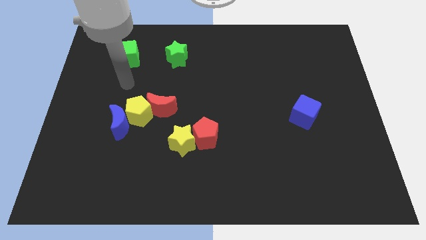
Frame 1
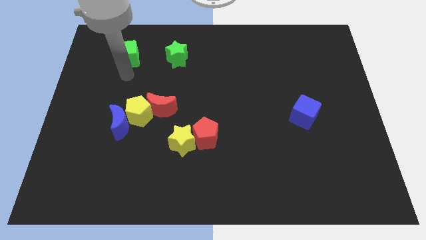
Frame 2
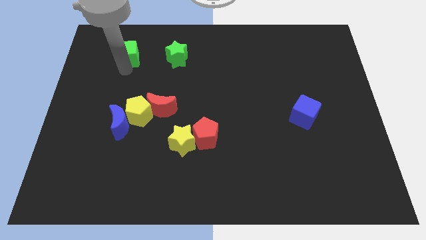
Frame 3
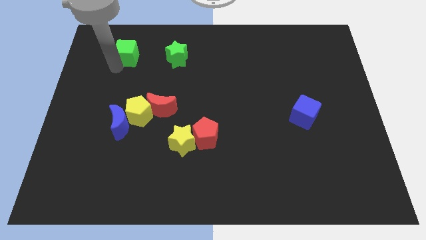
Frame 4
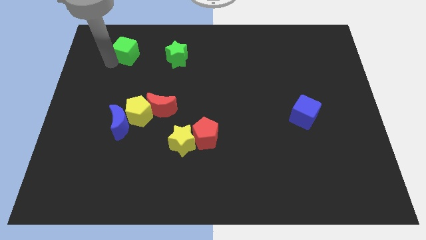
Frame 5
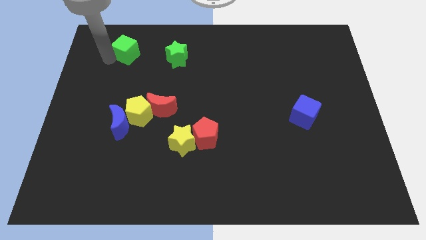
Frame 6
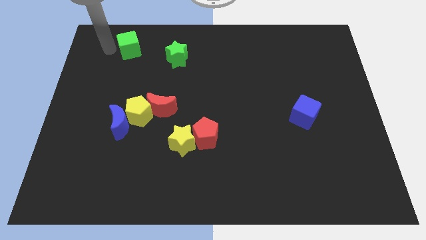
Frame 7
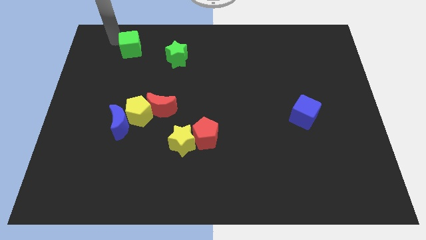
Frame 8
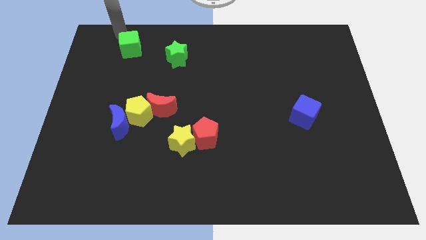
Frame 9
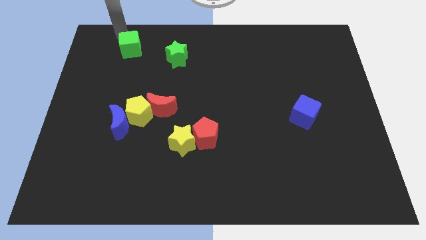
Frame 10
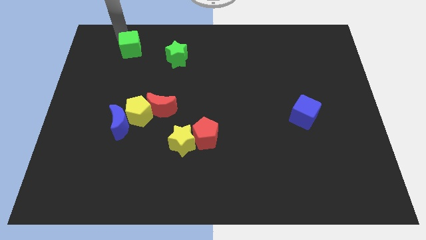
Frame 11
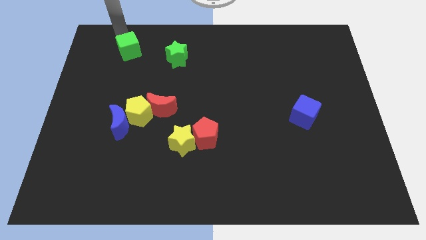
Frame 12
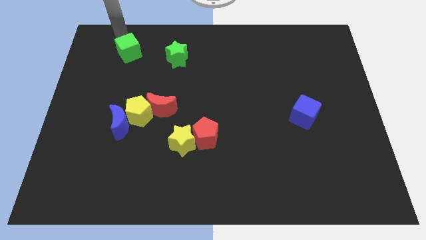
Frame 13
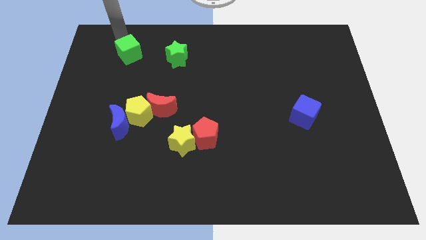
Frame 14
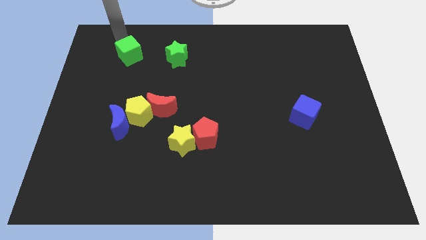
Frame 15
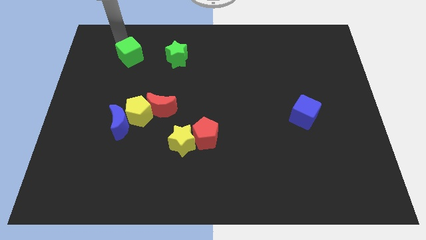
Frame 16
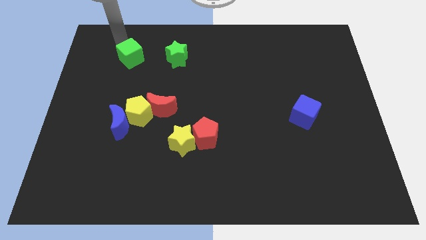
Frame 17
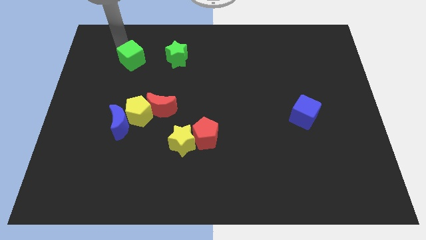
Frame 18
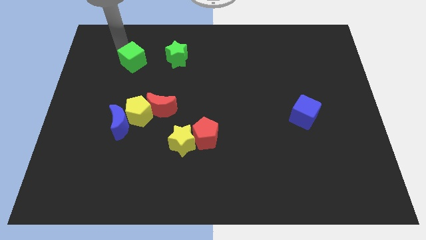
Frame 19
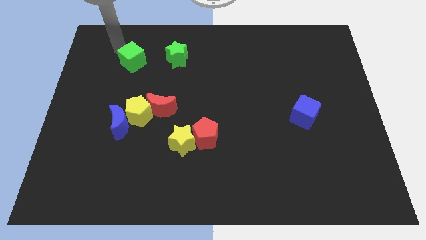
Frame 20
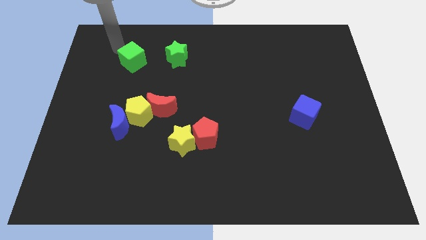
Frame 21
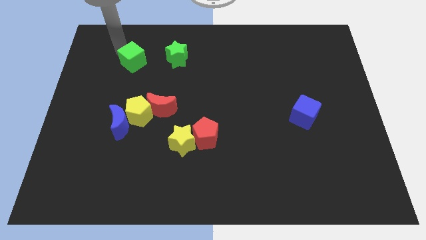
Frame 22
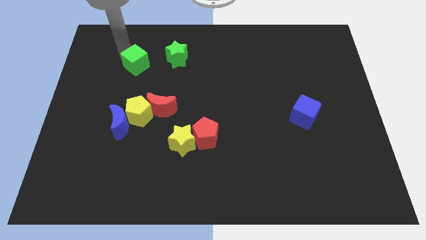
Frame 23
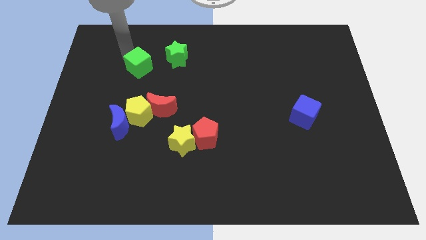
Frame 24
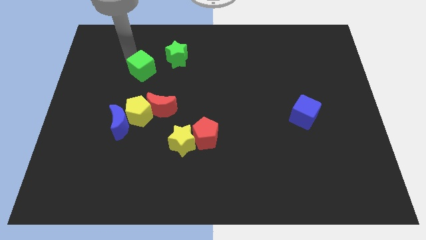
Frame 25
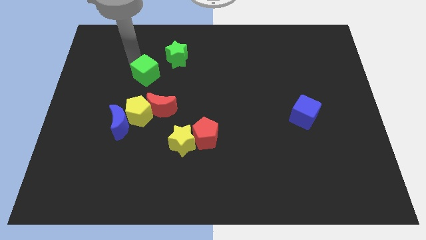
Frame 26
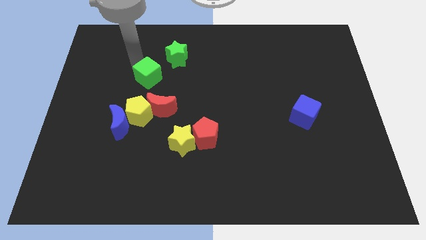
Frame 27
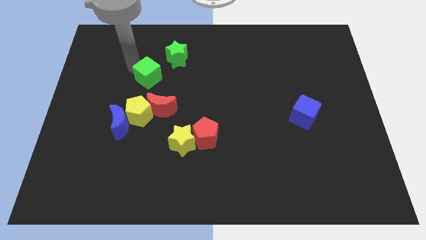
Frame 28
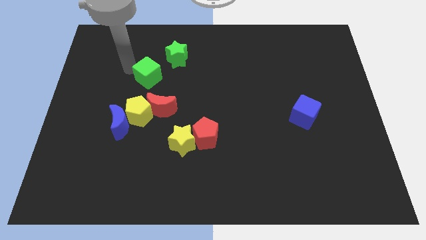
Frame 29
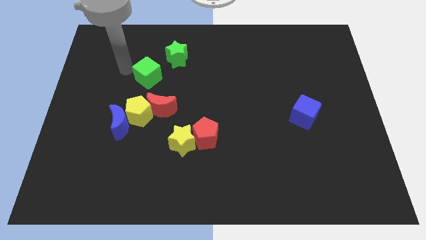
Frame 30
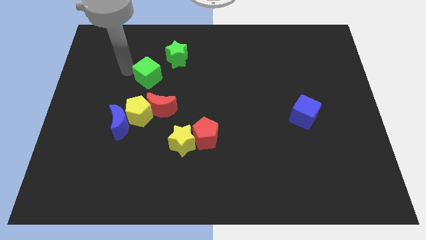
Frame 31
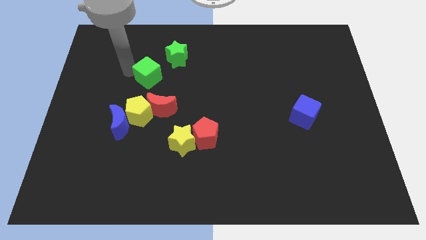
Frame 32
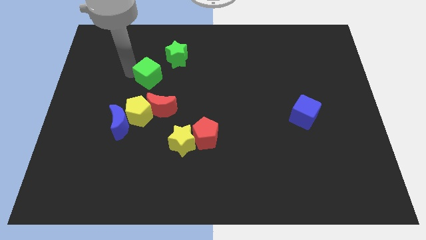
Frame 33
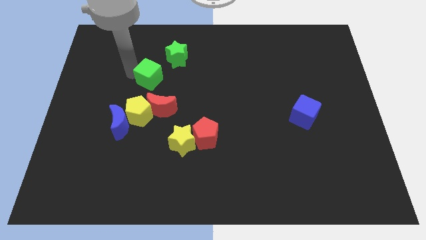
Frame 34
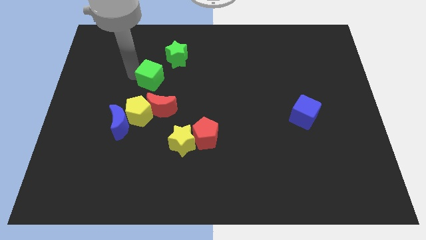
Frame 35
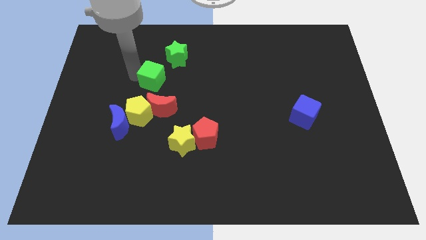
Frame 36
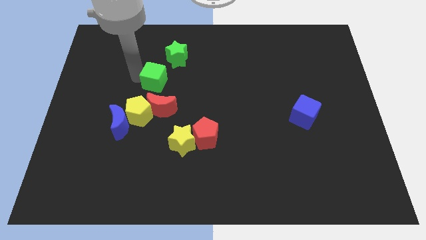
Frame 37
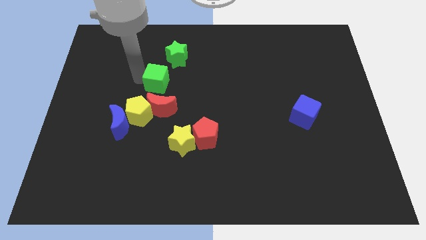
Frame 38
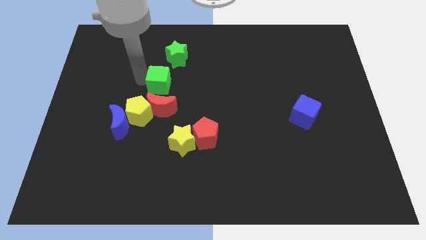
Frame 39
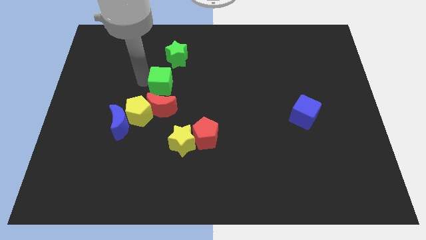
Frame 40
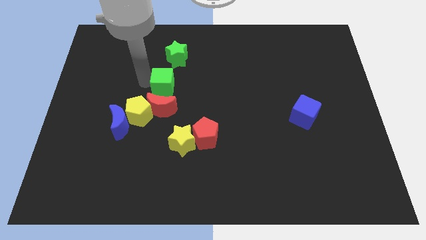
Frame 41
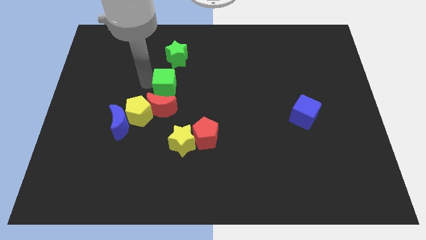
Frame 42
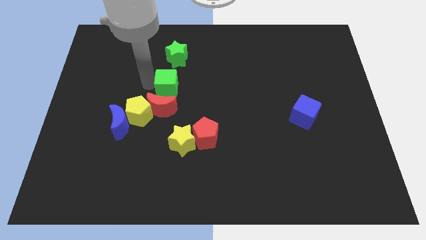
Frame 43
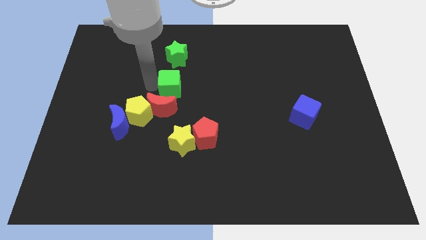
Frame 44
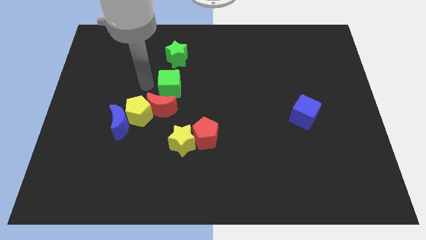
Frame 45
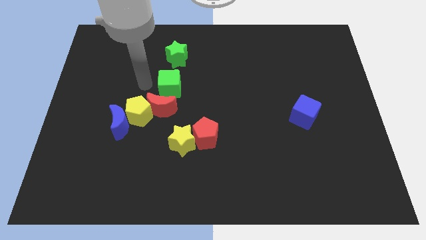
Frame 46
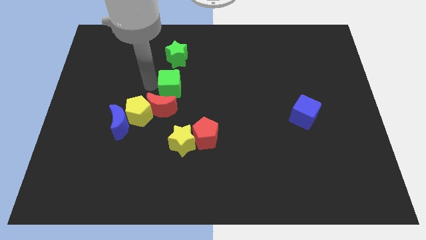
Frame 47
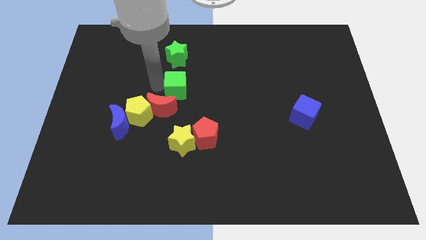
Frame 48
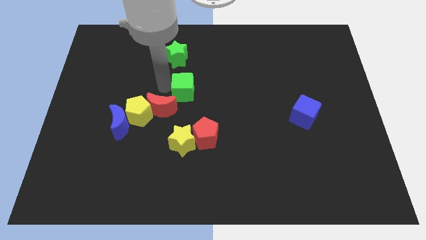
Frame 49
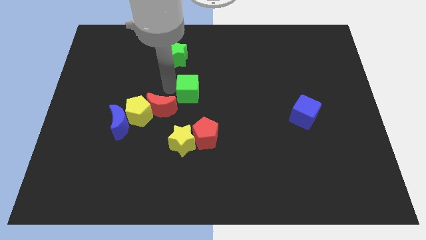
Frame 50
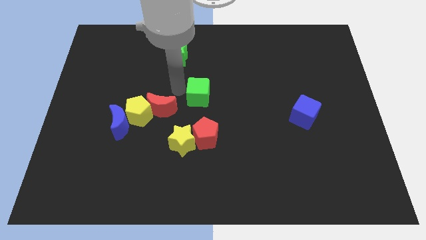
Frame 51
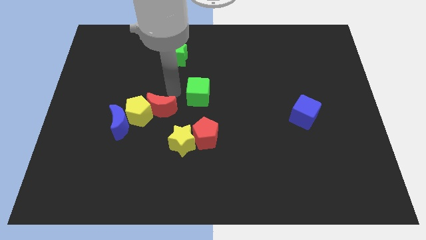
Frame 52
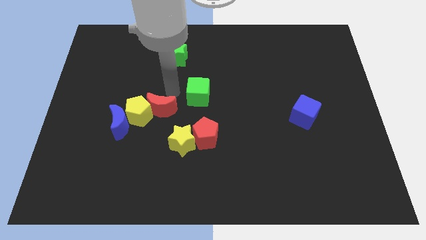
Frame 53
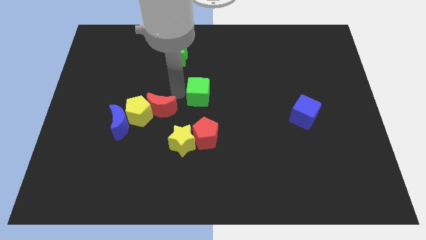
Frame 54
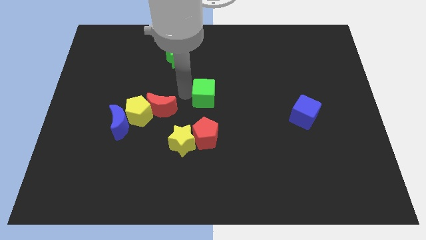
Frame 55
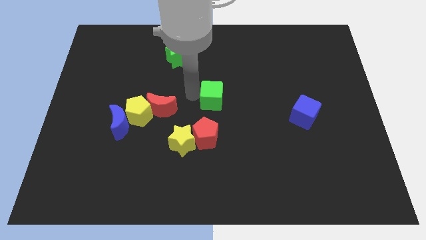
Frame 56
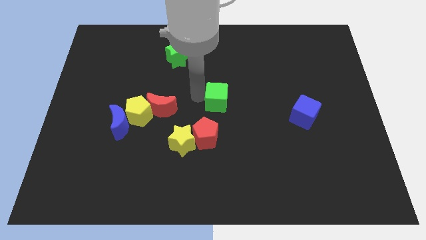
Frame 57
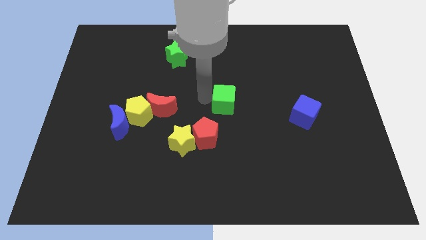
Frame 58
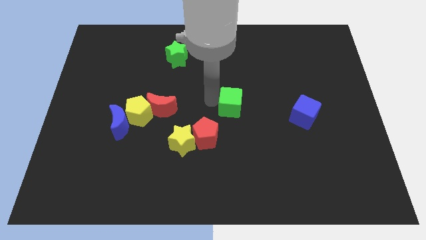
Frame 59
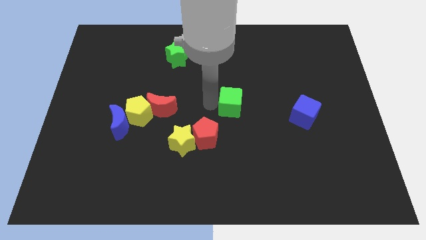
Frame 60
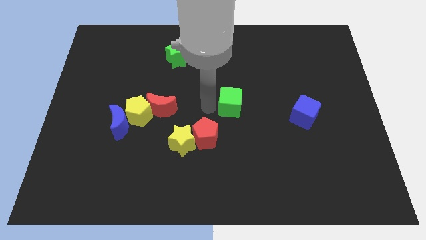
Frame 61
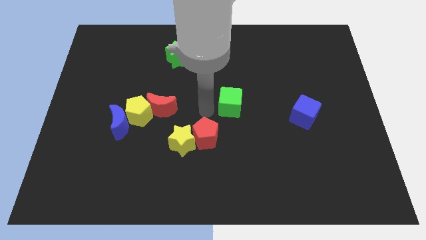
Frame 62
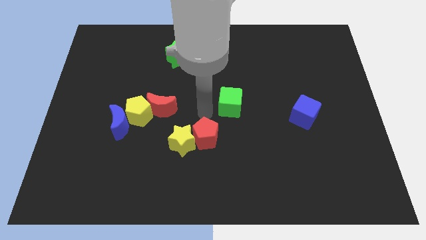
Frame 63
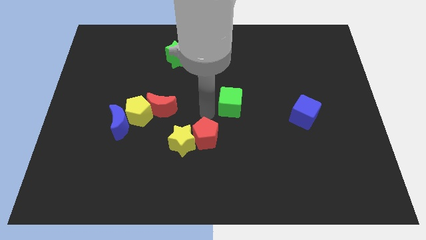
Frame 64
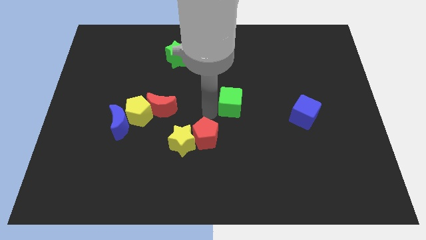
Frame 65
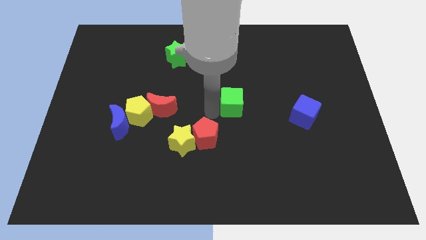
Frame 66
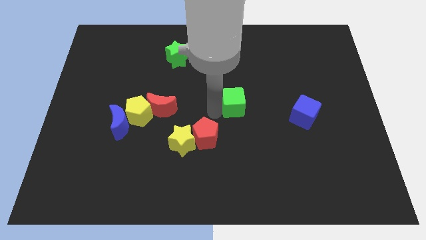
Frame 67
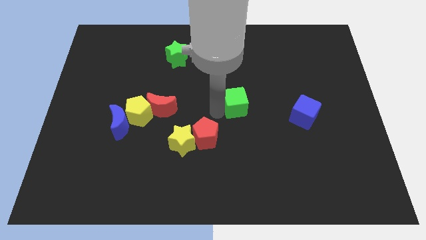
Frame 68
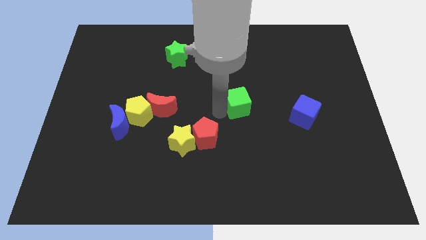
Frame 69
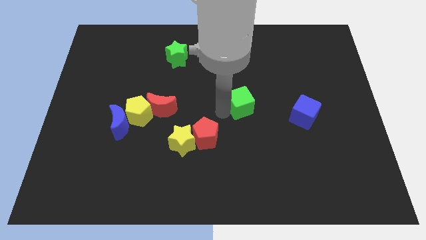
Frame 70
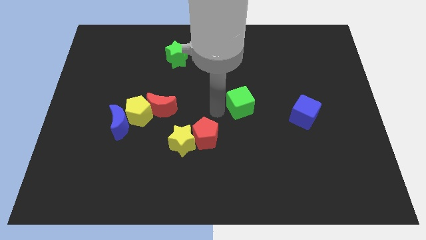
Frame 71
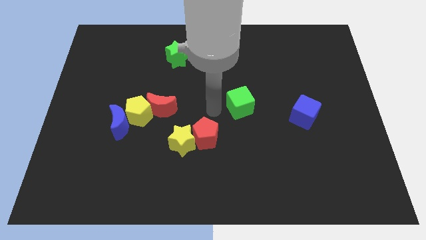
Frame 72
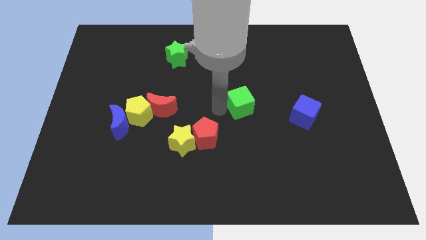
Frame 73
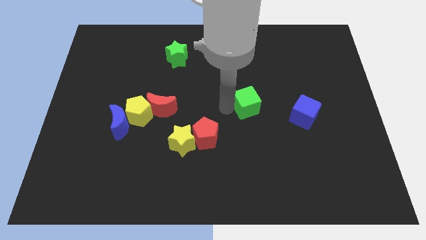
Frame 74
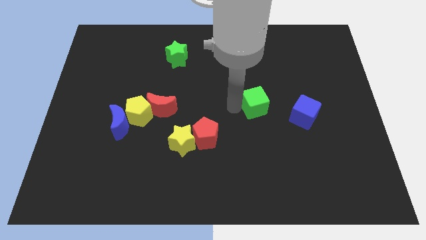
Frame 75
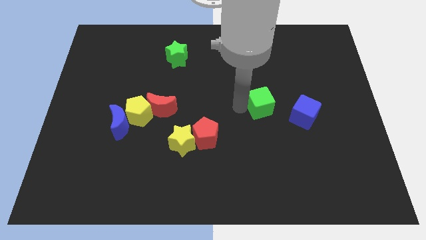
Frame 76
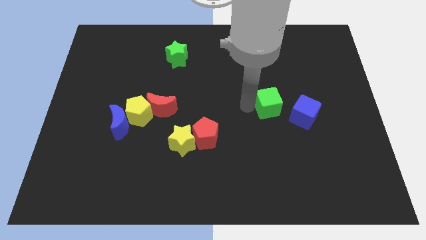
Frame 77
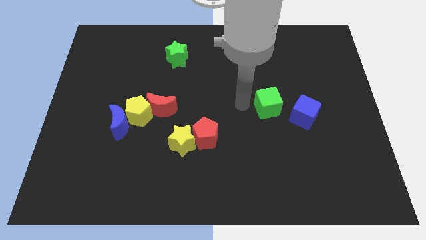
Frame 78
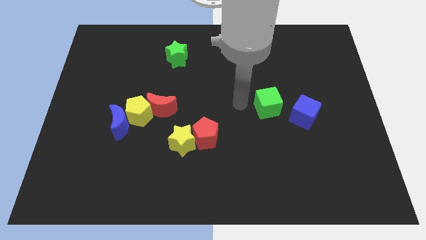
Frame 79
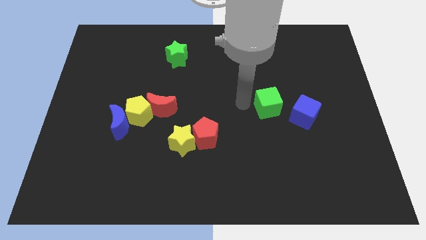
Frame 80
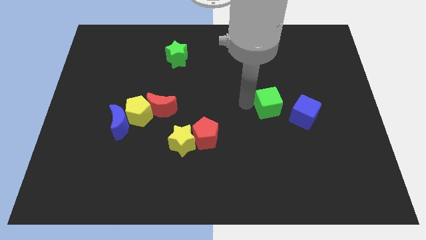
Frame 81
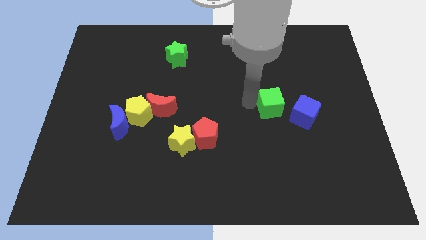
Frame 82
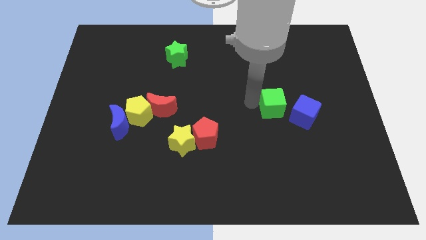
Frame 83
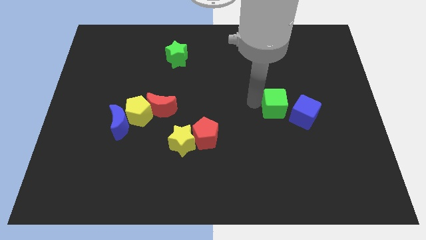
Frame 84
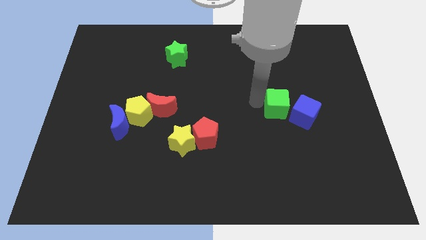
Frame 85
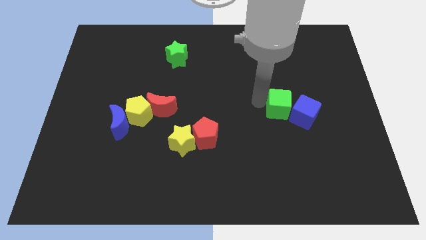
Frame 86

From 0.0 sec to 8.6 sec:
push the green cube next to the blue cube
